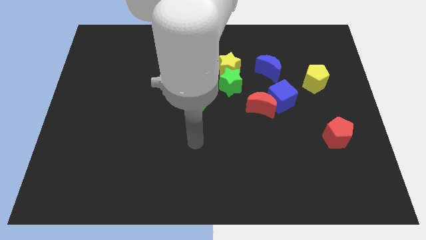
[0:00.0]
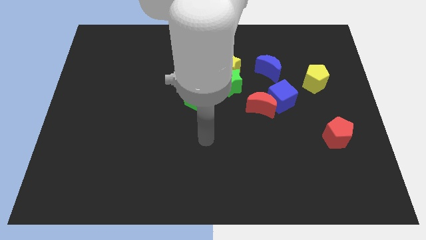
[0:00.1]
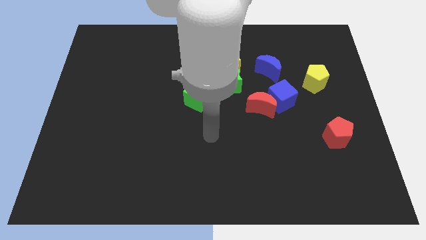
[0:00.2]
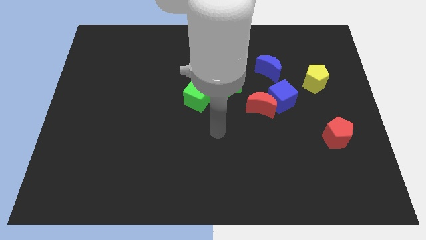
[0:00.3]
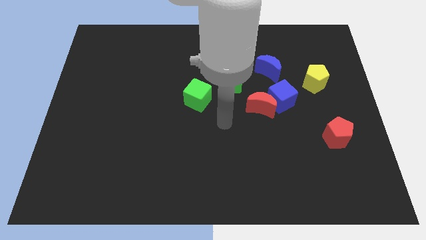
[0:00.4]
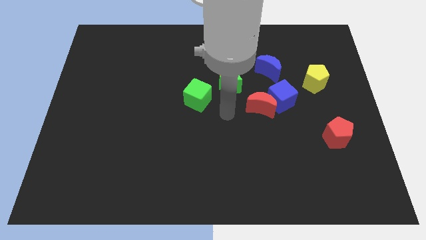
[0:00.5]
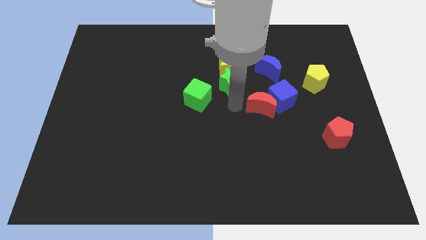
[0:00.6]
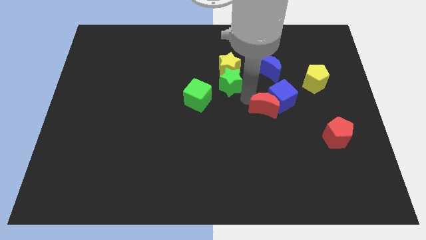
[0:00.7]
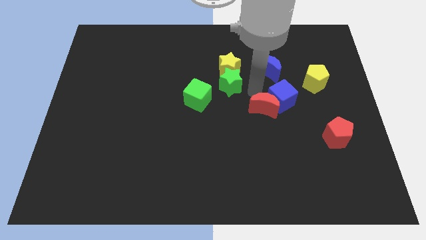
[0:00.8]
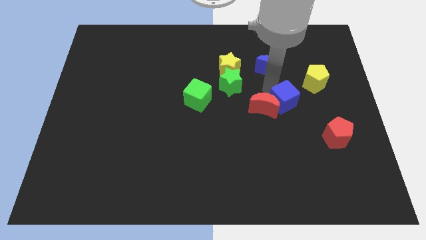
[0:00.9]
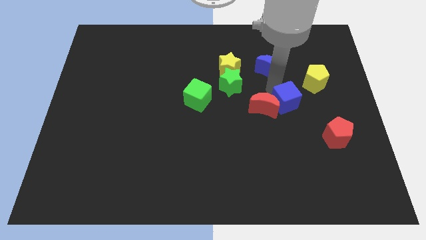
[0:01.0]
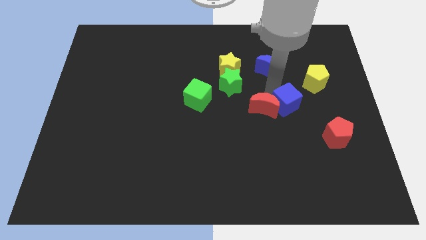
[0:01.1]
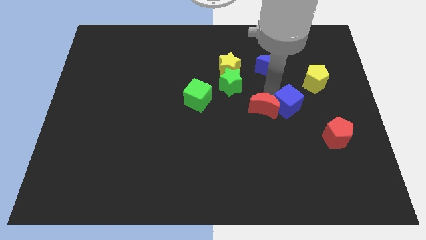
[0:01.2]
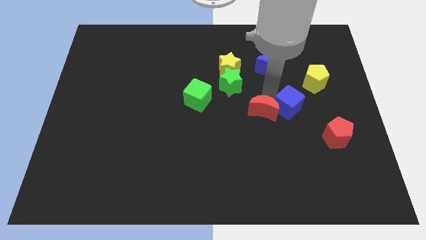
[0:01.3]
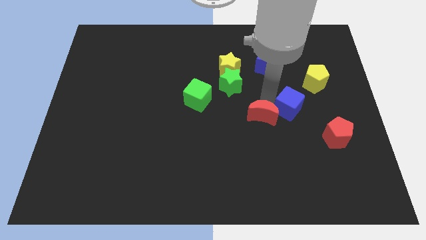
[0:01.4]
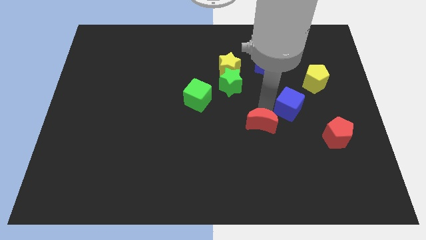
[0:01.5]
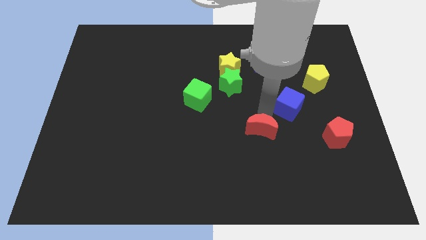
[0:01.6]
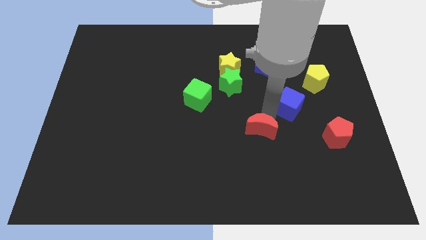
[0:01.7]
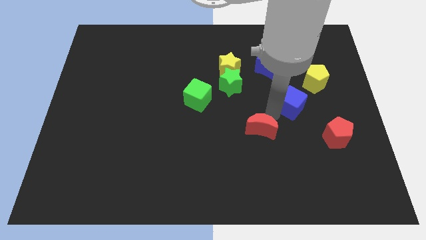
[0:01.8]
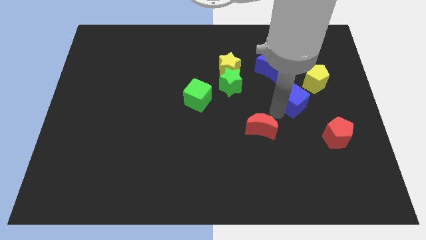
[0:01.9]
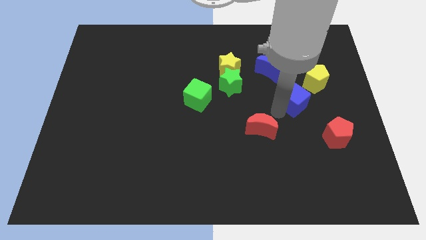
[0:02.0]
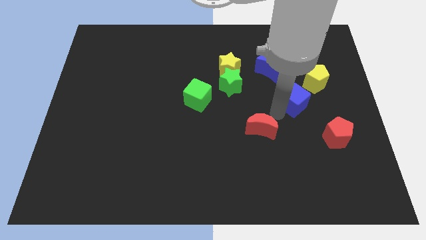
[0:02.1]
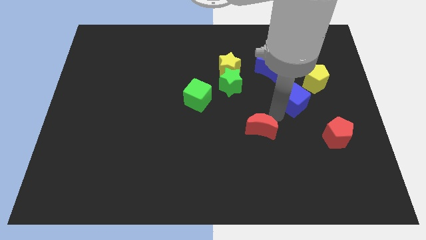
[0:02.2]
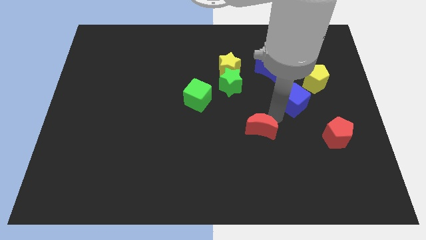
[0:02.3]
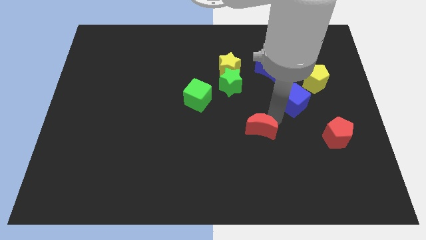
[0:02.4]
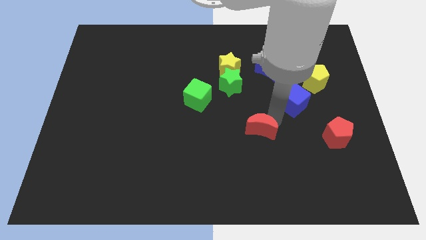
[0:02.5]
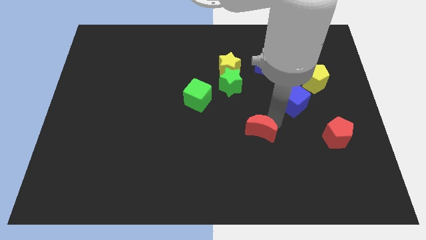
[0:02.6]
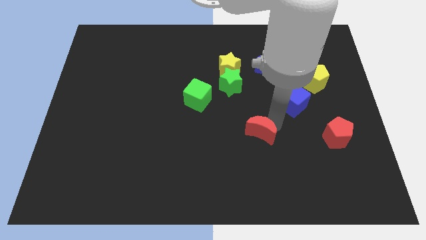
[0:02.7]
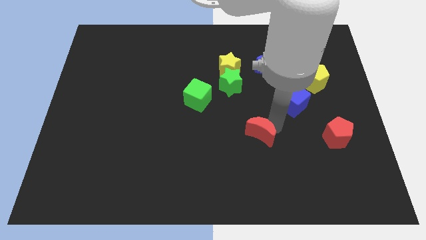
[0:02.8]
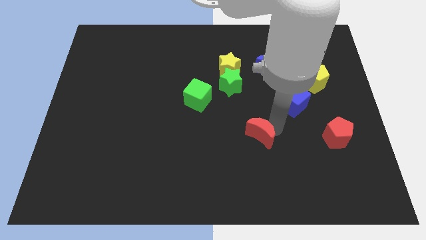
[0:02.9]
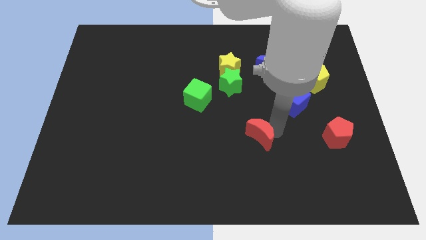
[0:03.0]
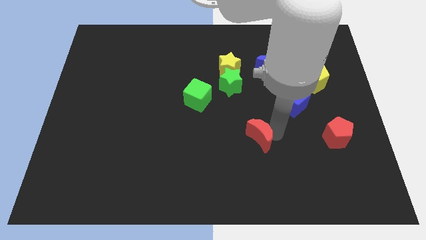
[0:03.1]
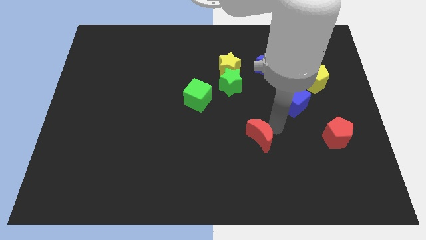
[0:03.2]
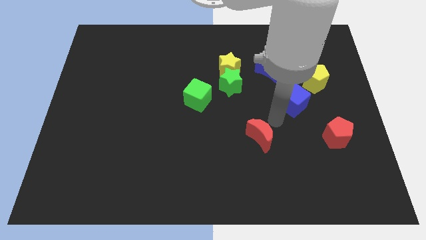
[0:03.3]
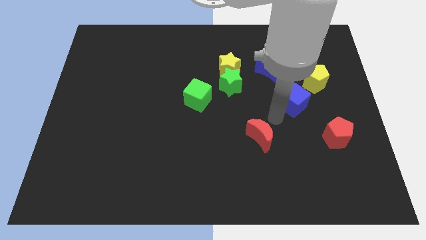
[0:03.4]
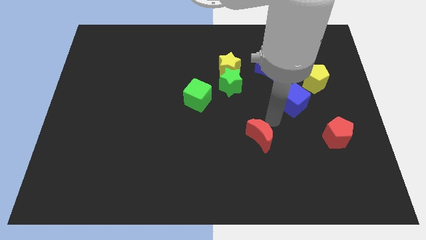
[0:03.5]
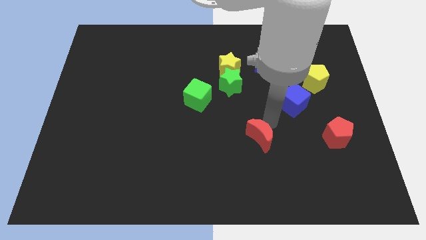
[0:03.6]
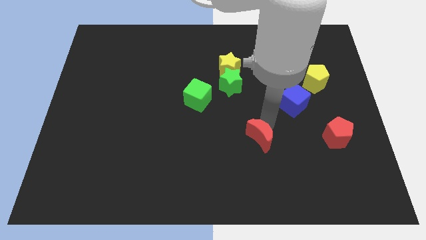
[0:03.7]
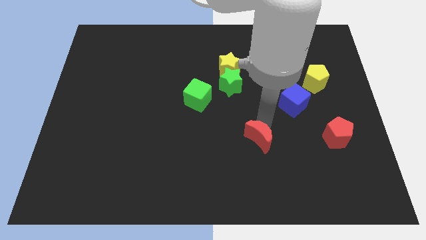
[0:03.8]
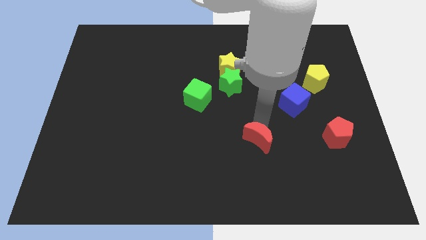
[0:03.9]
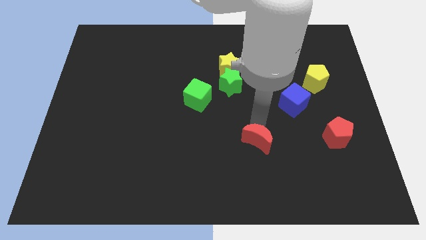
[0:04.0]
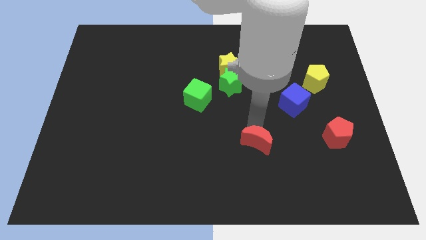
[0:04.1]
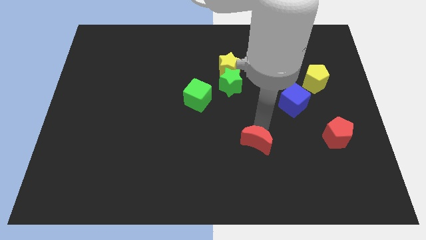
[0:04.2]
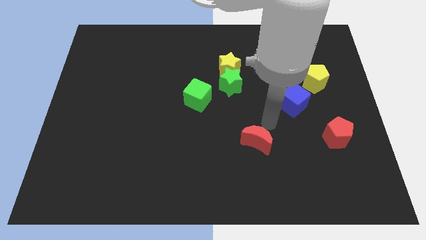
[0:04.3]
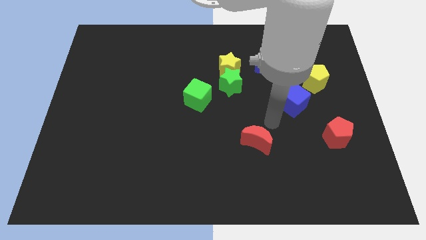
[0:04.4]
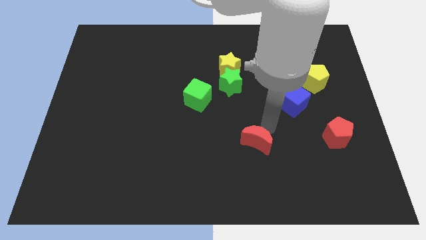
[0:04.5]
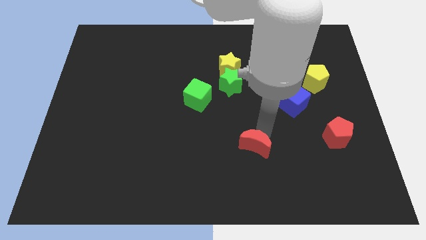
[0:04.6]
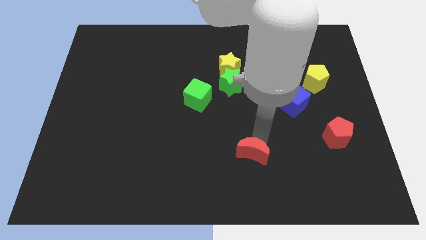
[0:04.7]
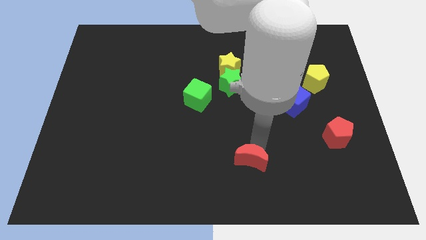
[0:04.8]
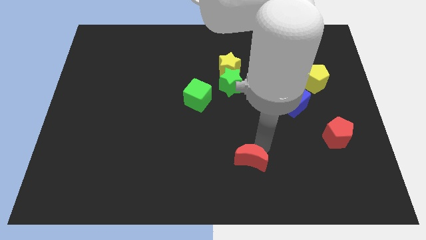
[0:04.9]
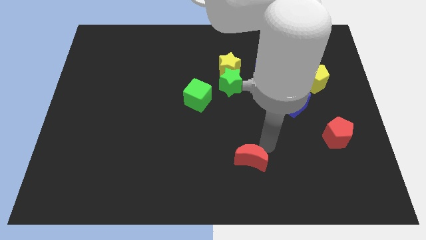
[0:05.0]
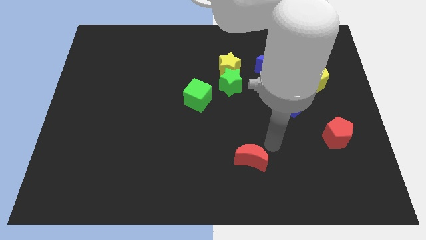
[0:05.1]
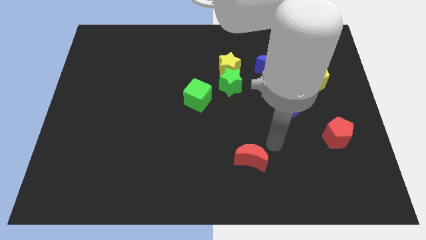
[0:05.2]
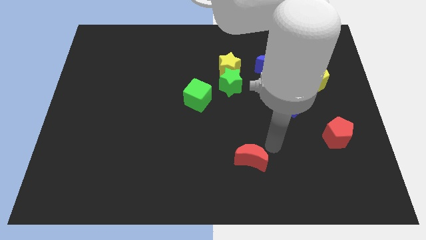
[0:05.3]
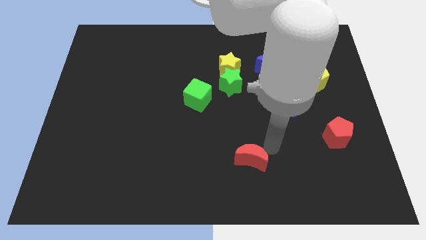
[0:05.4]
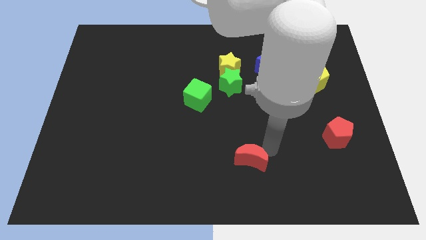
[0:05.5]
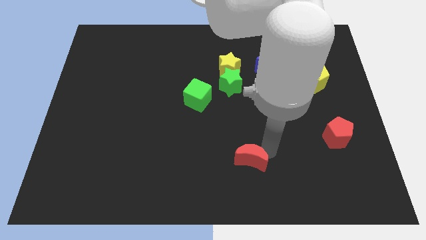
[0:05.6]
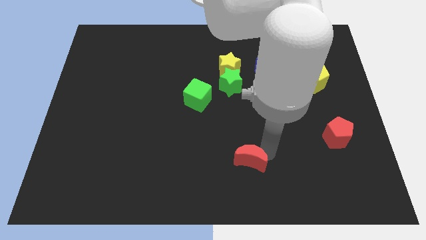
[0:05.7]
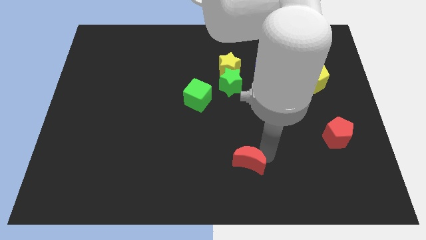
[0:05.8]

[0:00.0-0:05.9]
move the red moon to the bottom side
